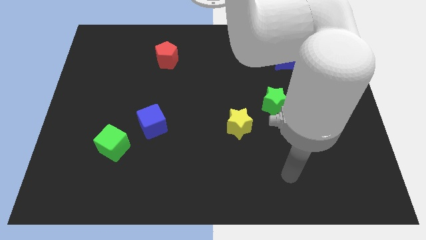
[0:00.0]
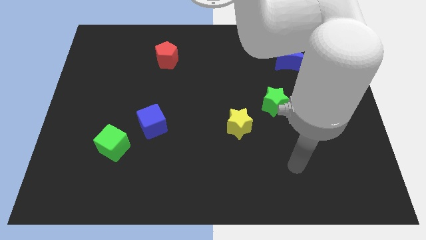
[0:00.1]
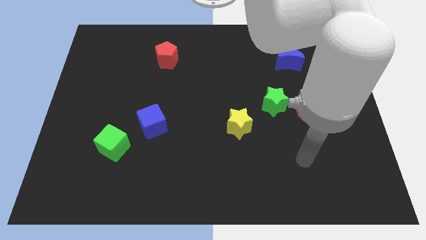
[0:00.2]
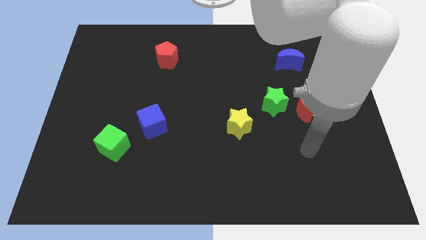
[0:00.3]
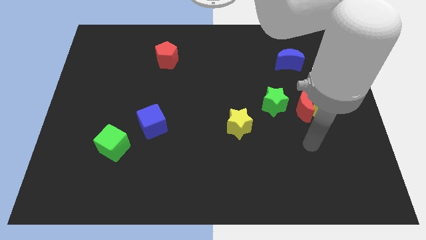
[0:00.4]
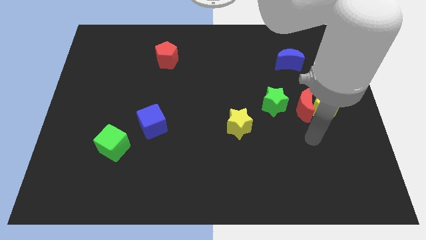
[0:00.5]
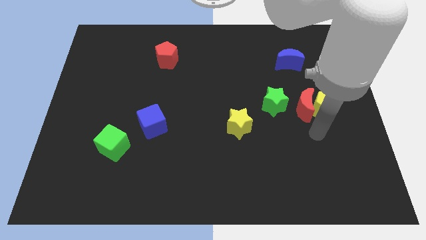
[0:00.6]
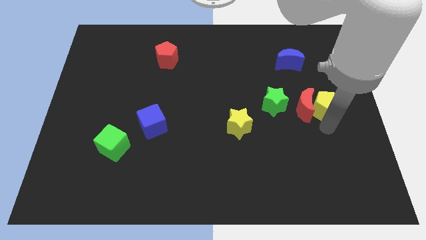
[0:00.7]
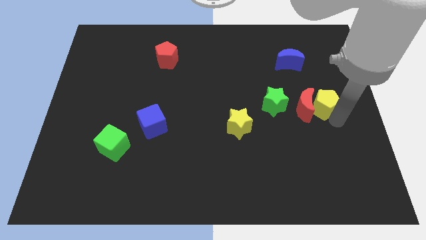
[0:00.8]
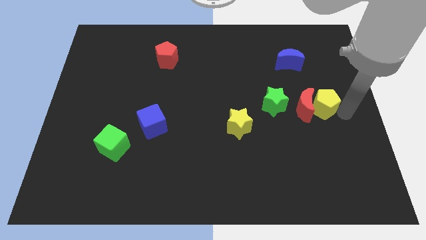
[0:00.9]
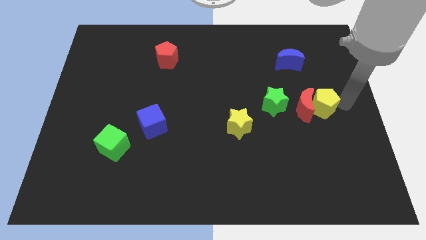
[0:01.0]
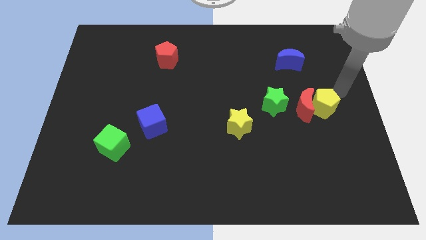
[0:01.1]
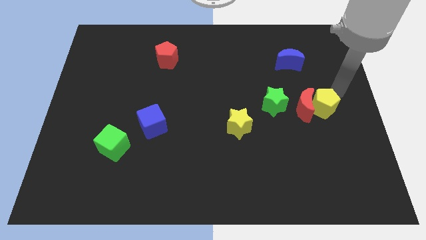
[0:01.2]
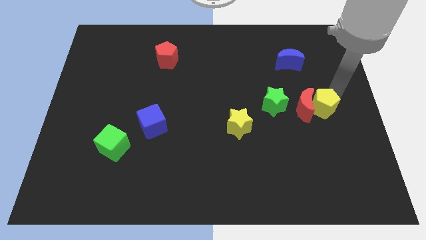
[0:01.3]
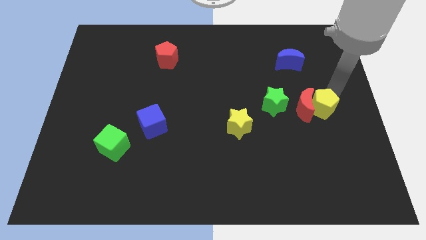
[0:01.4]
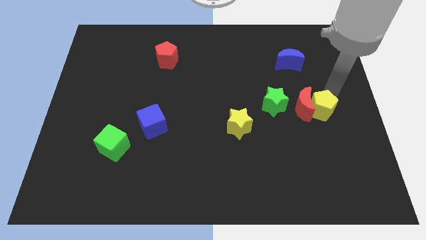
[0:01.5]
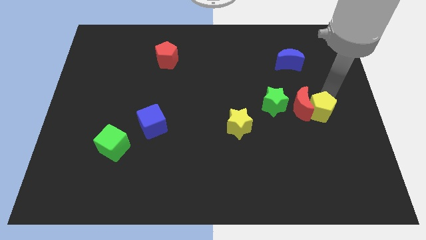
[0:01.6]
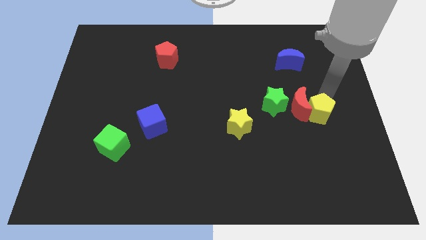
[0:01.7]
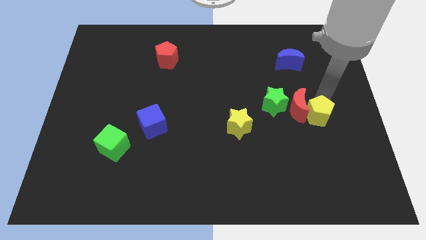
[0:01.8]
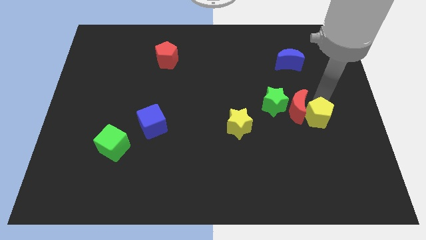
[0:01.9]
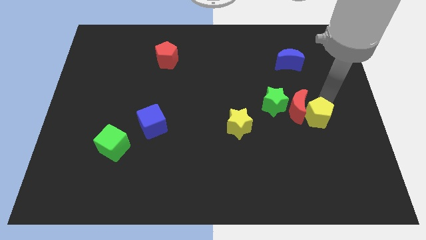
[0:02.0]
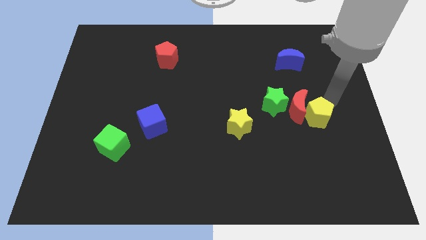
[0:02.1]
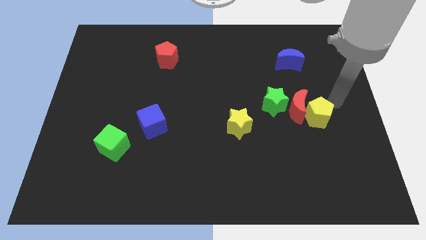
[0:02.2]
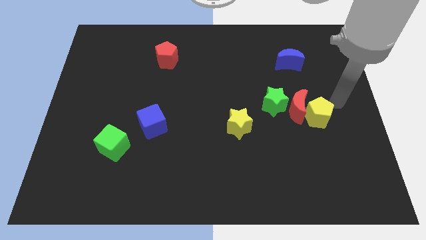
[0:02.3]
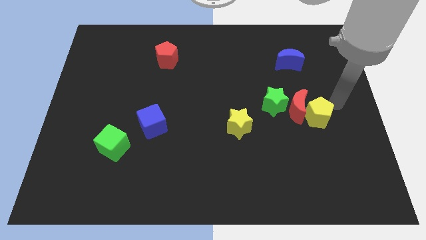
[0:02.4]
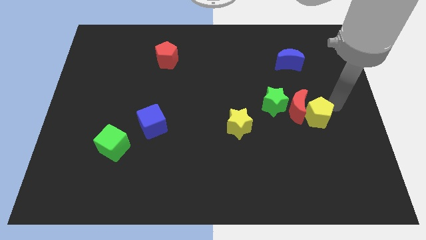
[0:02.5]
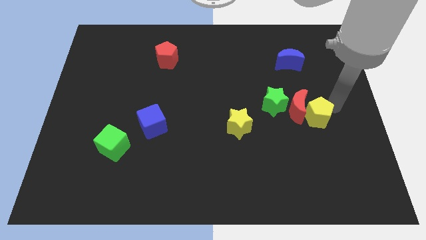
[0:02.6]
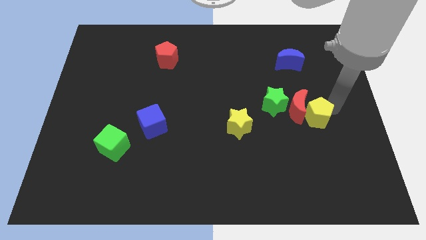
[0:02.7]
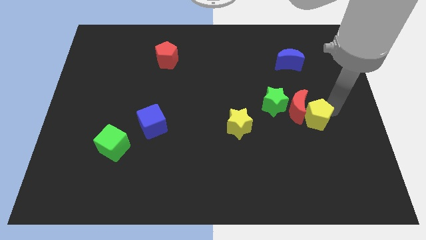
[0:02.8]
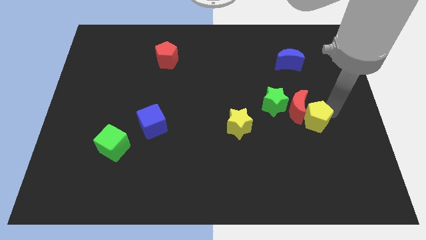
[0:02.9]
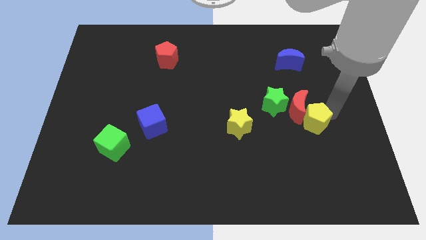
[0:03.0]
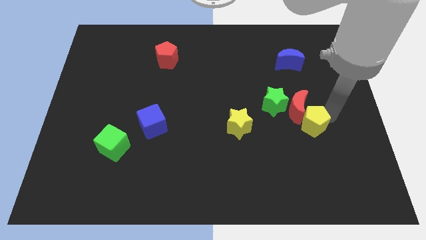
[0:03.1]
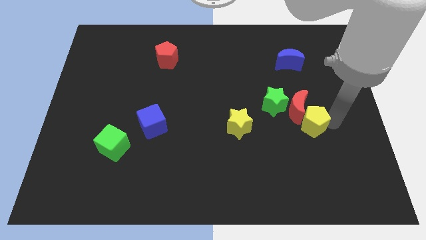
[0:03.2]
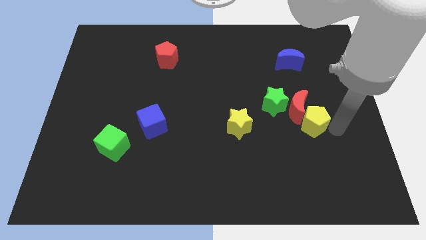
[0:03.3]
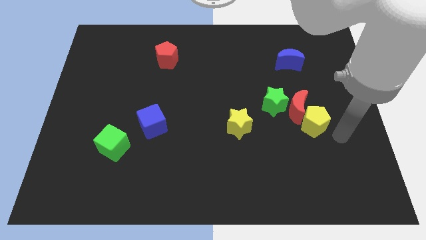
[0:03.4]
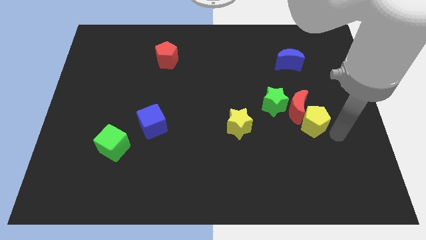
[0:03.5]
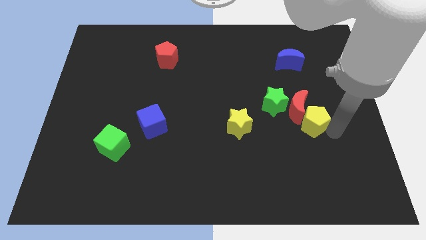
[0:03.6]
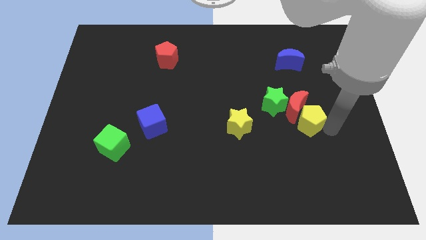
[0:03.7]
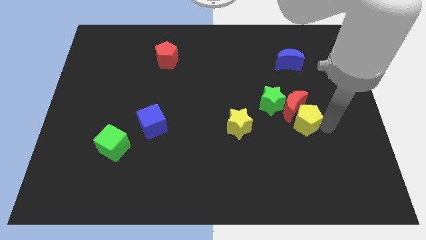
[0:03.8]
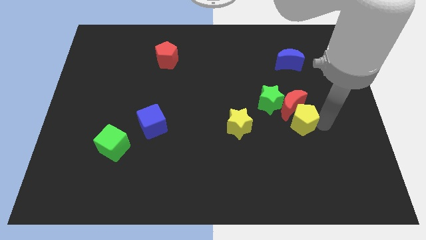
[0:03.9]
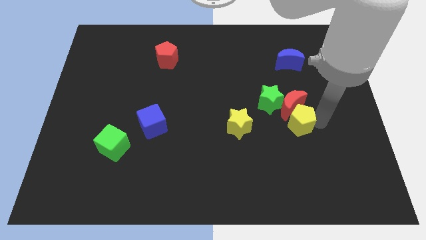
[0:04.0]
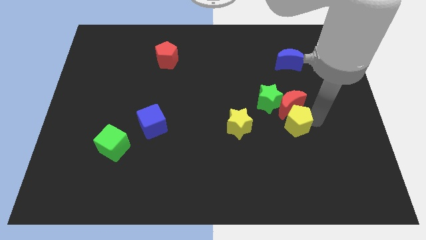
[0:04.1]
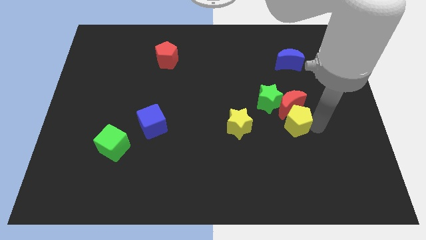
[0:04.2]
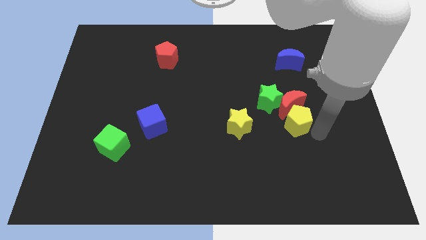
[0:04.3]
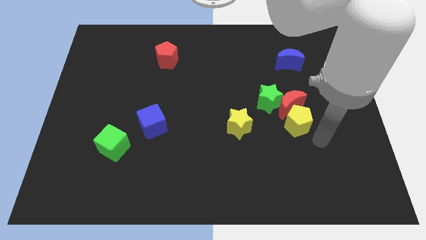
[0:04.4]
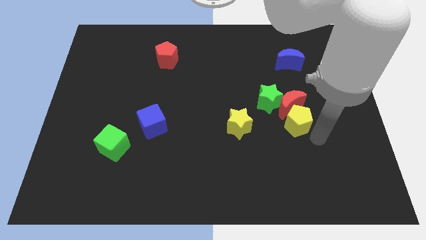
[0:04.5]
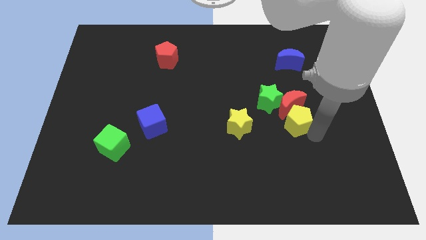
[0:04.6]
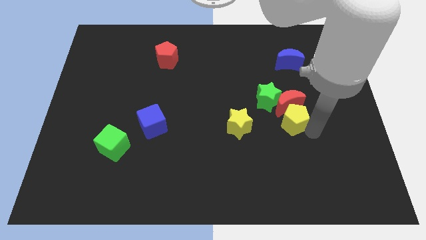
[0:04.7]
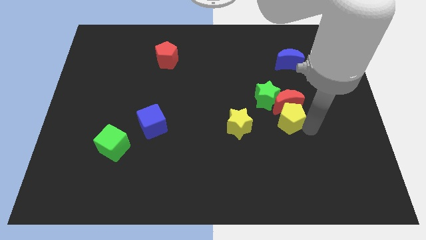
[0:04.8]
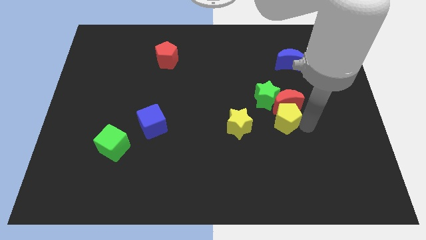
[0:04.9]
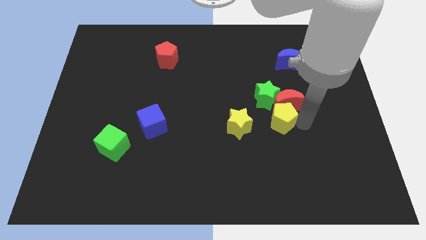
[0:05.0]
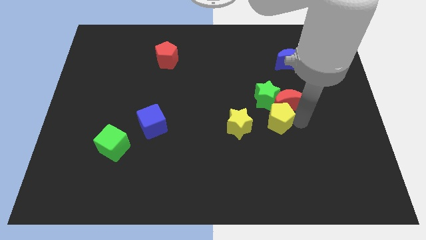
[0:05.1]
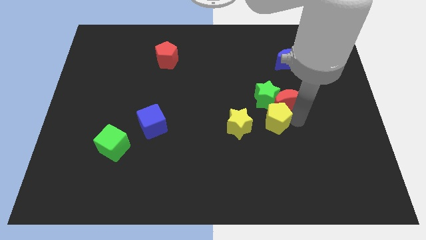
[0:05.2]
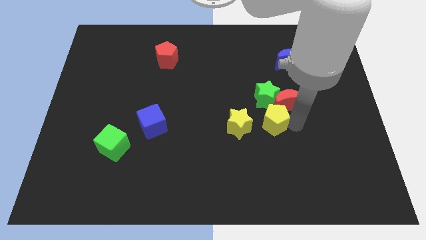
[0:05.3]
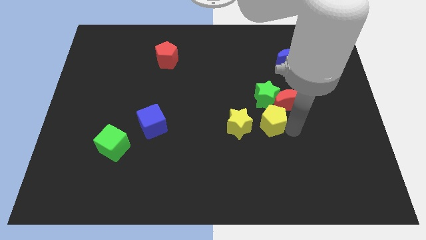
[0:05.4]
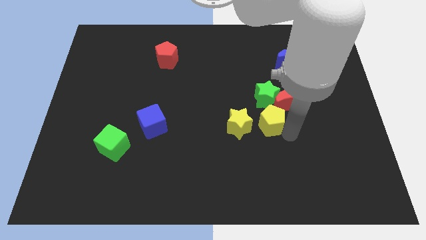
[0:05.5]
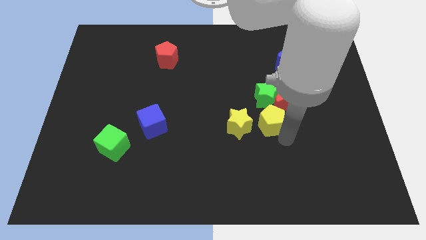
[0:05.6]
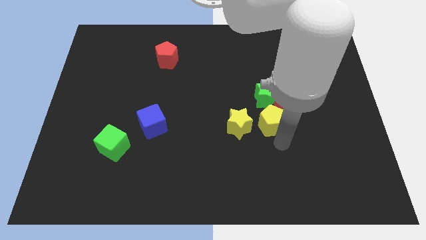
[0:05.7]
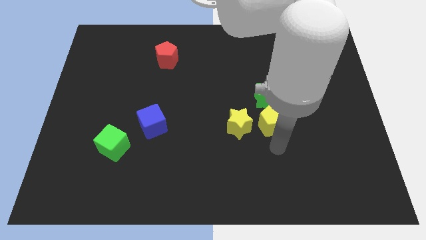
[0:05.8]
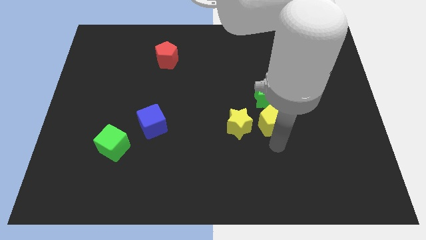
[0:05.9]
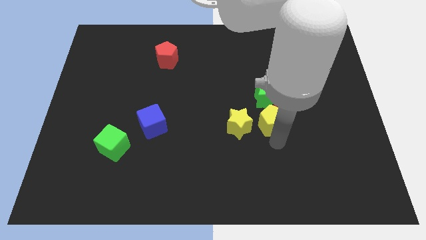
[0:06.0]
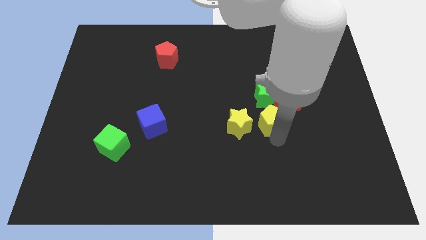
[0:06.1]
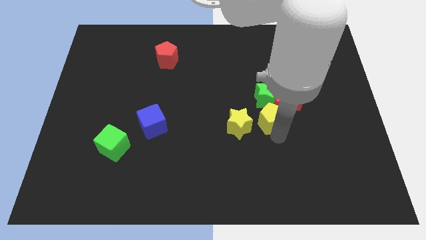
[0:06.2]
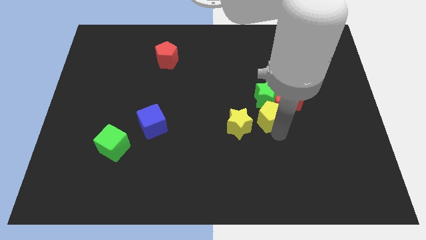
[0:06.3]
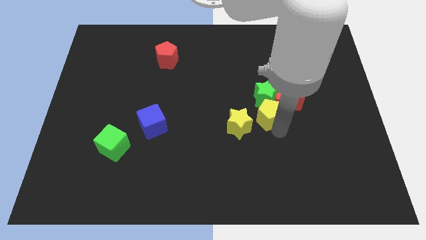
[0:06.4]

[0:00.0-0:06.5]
put the yellow pentagon next to the green star
